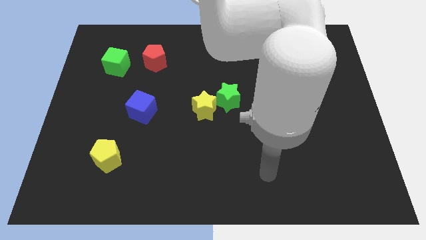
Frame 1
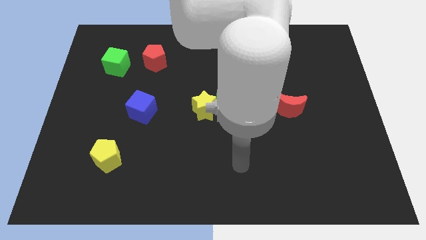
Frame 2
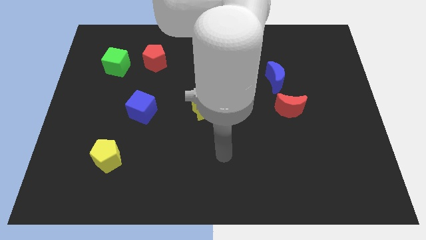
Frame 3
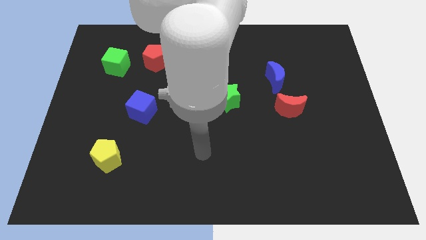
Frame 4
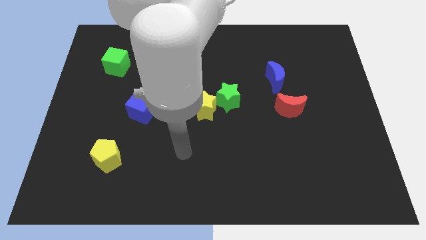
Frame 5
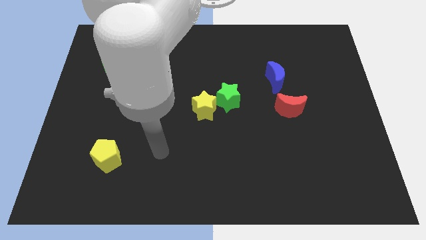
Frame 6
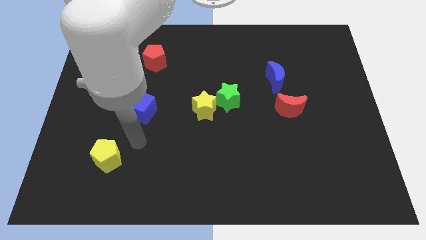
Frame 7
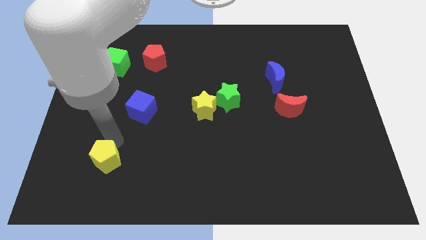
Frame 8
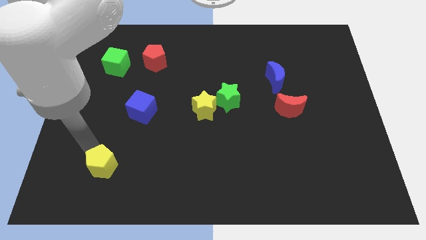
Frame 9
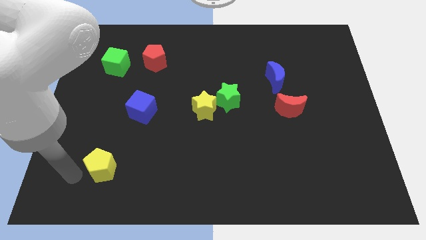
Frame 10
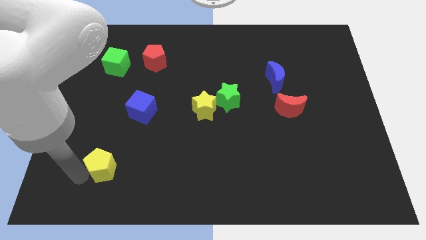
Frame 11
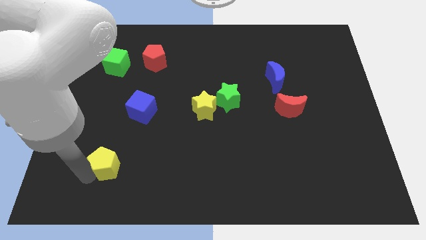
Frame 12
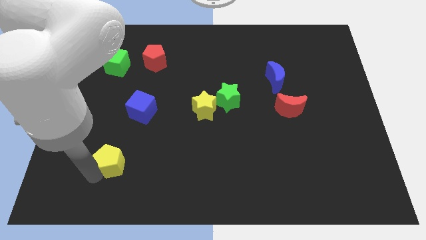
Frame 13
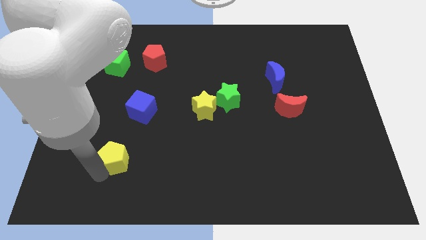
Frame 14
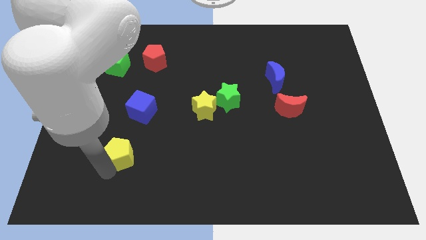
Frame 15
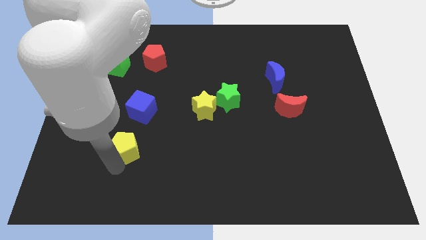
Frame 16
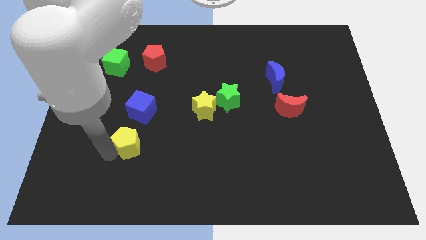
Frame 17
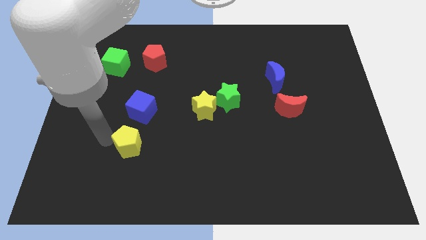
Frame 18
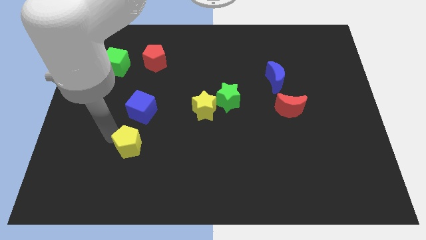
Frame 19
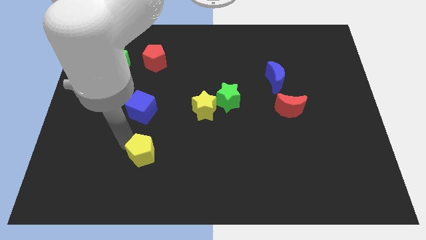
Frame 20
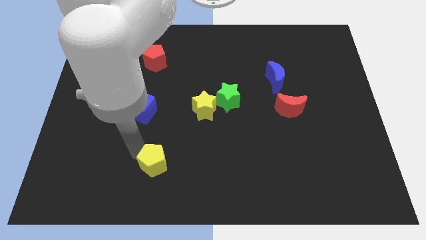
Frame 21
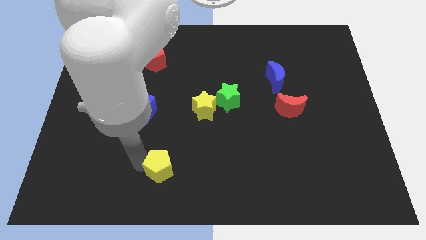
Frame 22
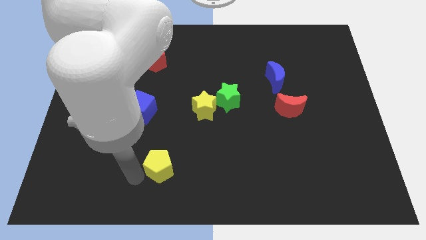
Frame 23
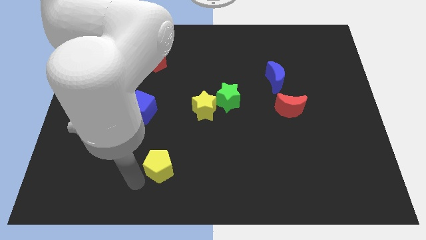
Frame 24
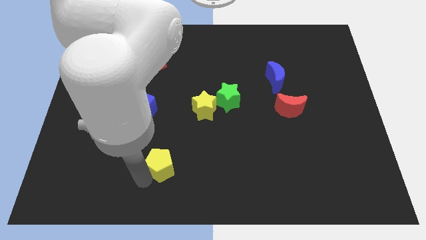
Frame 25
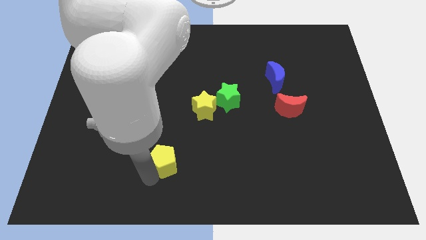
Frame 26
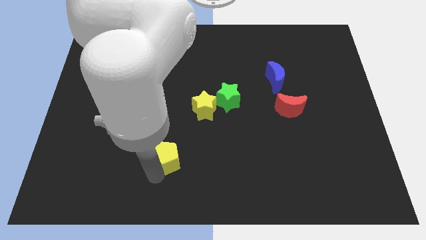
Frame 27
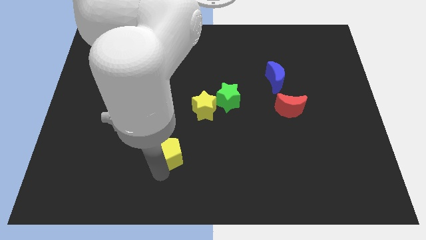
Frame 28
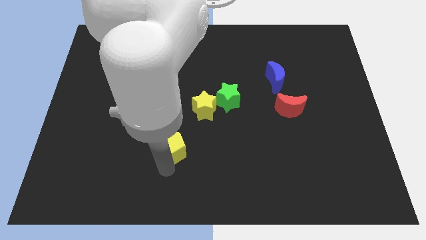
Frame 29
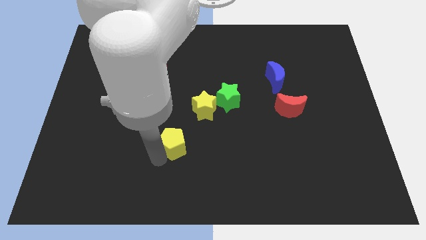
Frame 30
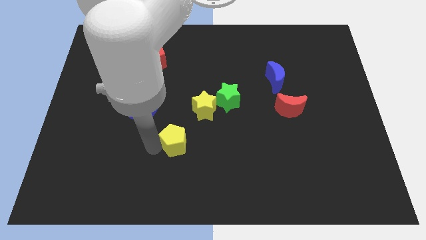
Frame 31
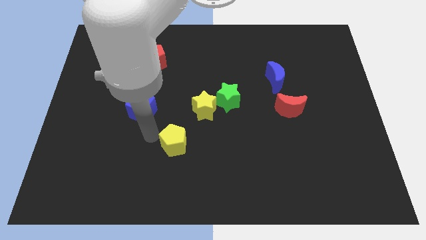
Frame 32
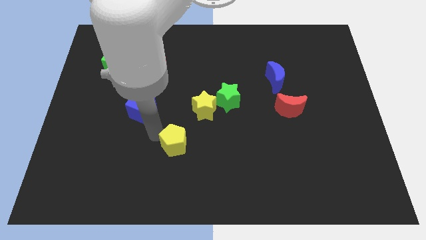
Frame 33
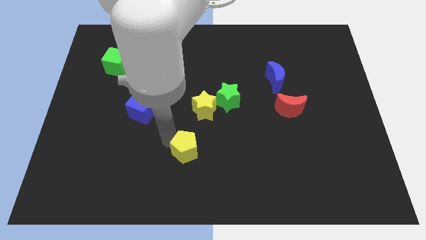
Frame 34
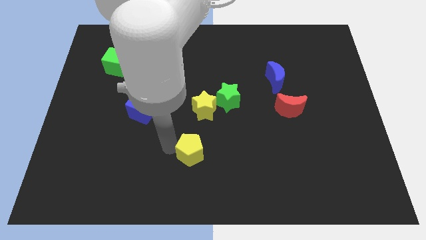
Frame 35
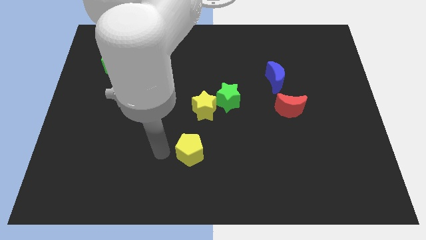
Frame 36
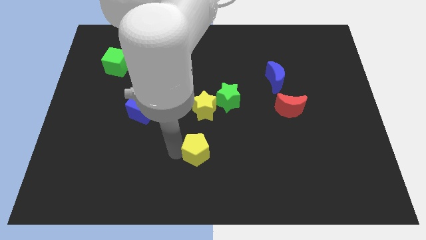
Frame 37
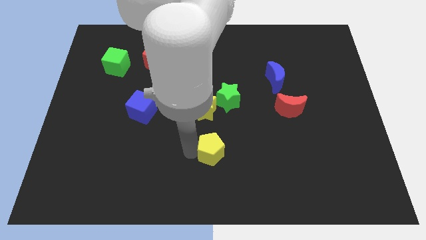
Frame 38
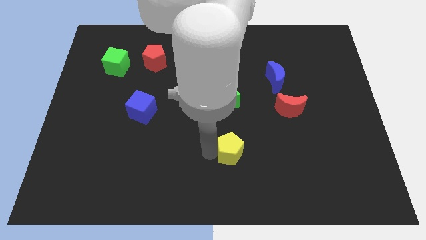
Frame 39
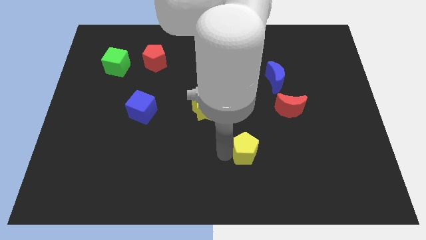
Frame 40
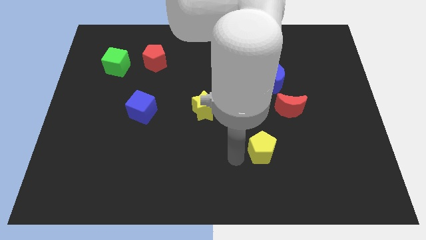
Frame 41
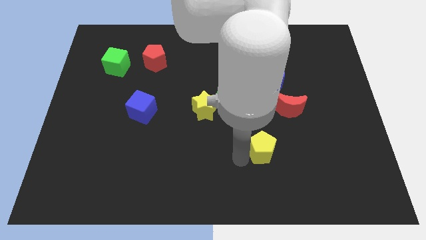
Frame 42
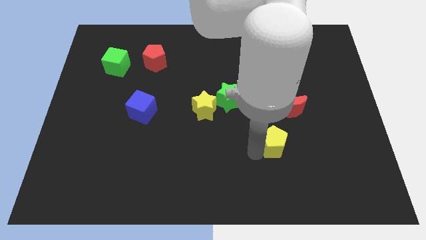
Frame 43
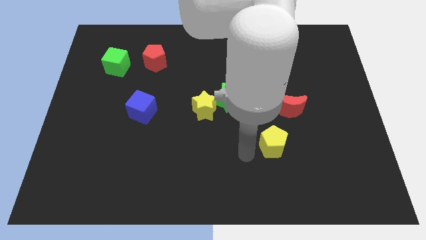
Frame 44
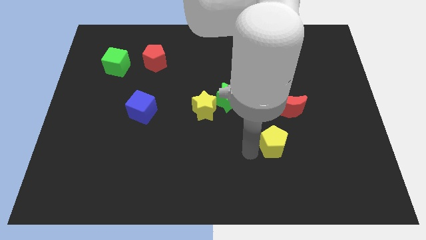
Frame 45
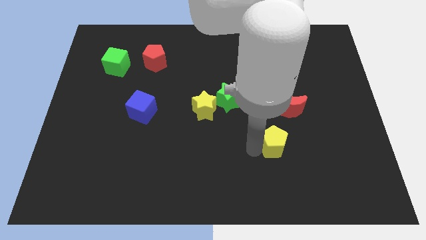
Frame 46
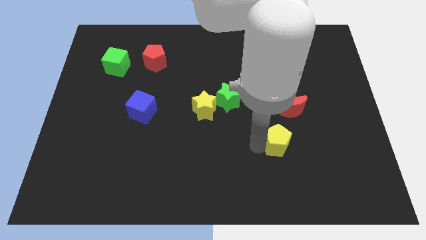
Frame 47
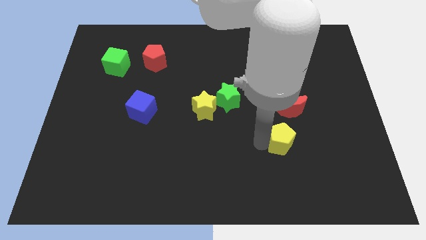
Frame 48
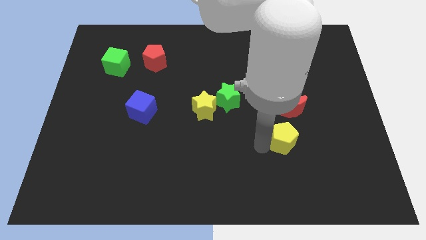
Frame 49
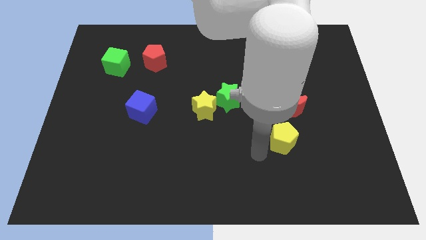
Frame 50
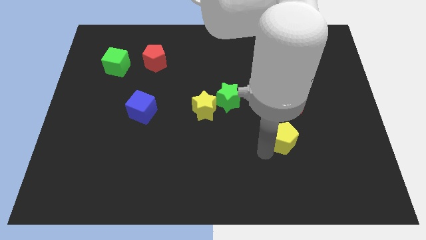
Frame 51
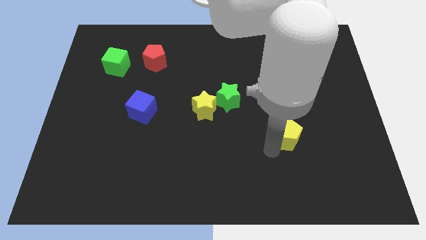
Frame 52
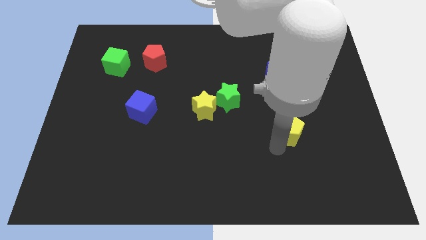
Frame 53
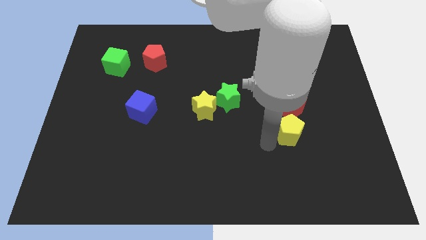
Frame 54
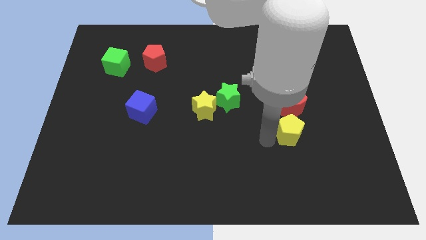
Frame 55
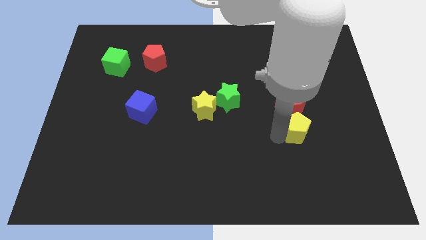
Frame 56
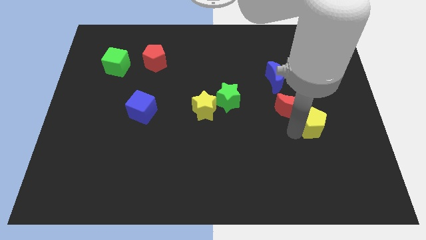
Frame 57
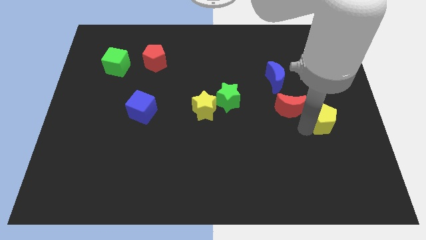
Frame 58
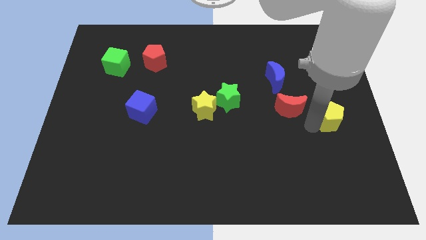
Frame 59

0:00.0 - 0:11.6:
slide the yellow pentagon to the right side

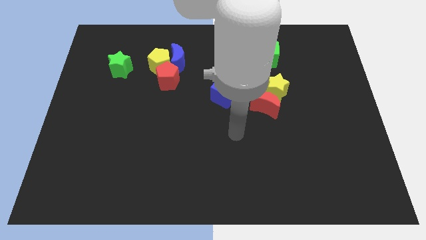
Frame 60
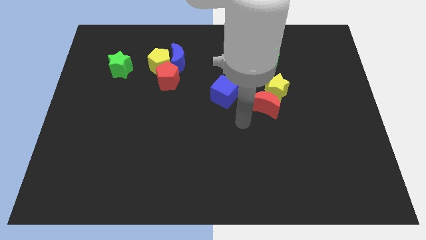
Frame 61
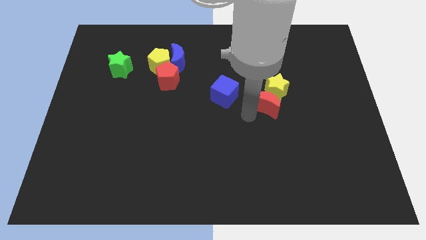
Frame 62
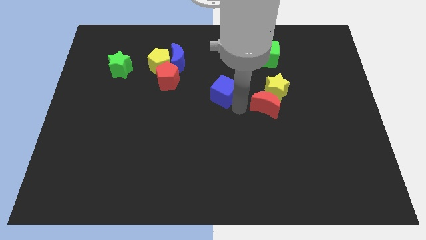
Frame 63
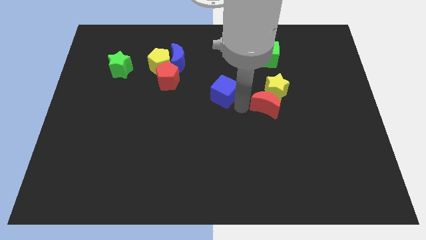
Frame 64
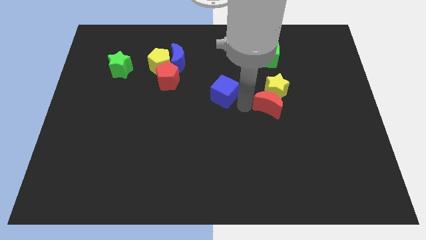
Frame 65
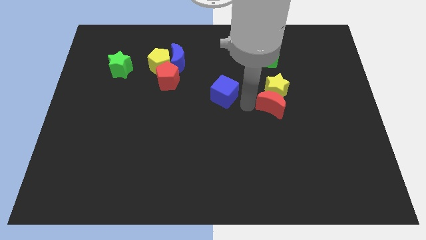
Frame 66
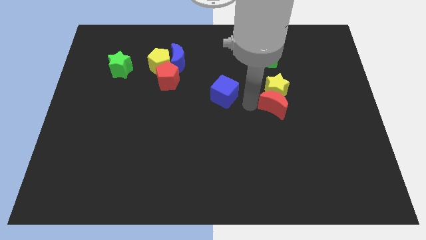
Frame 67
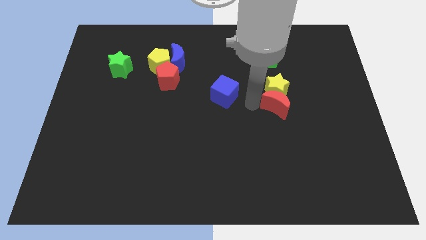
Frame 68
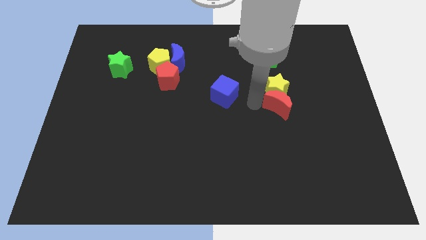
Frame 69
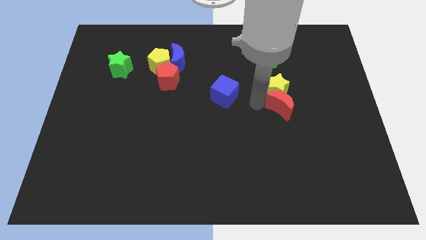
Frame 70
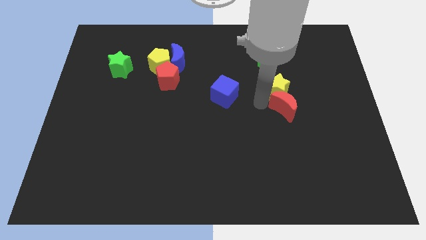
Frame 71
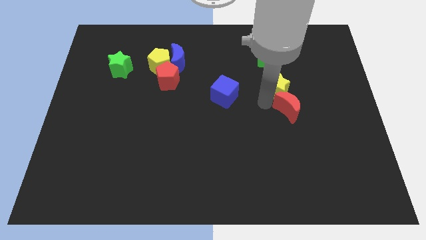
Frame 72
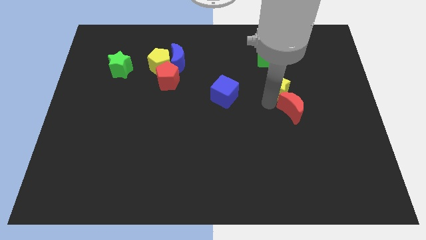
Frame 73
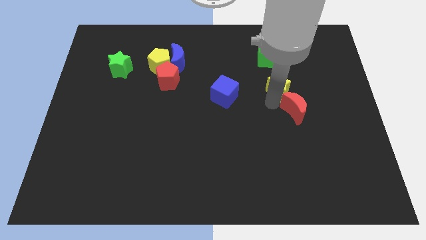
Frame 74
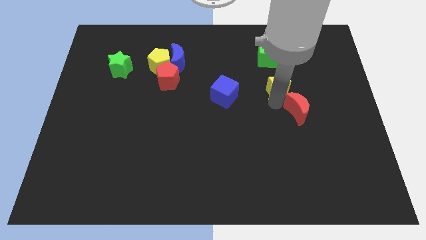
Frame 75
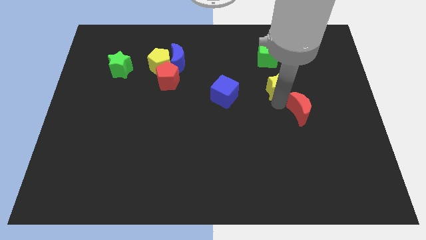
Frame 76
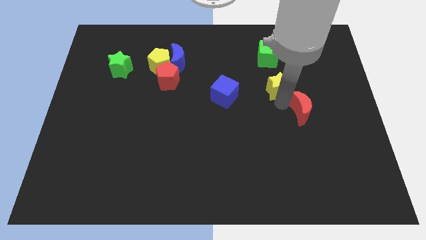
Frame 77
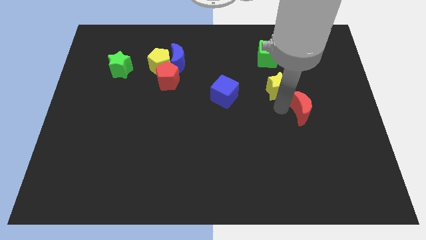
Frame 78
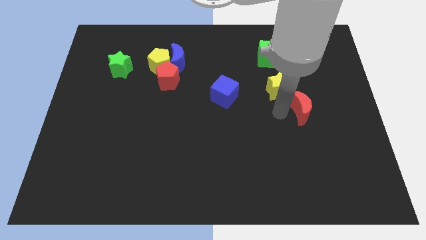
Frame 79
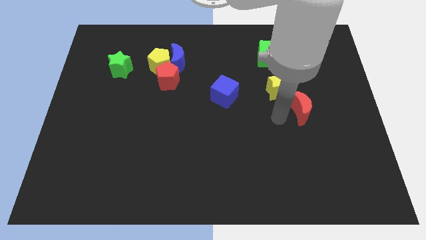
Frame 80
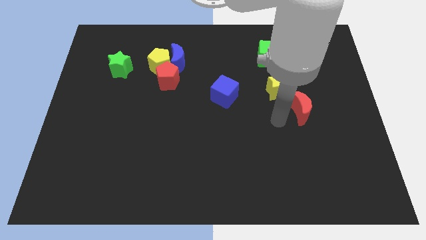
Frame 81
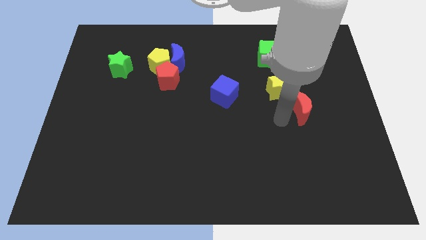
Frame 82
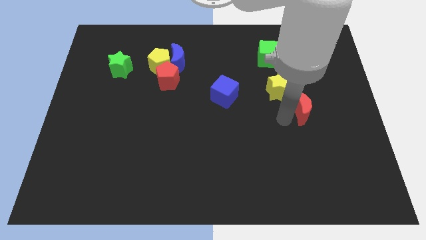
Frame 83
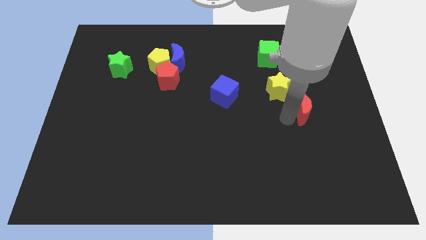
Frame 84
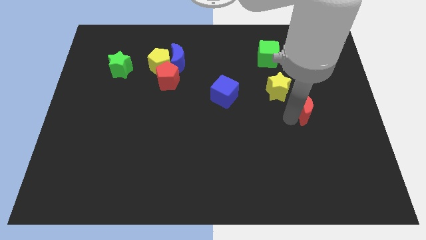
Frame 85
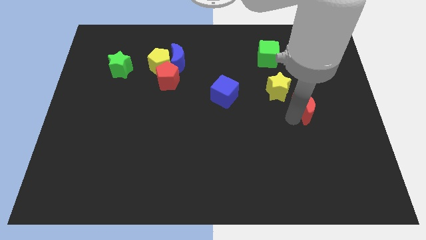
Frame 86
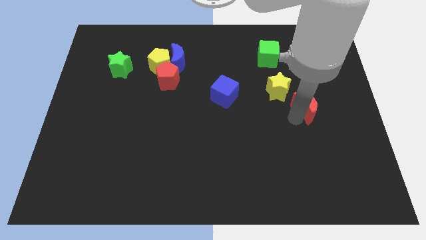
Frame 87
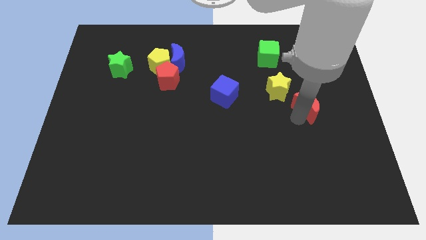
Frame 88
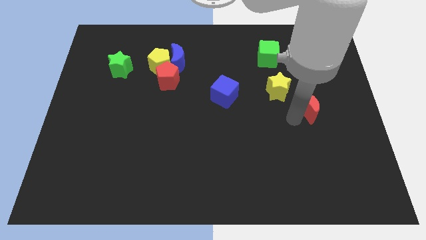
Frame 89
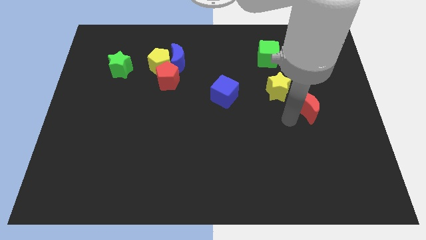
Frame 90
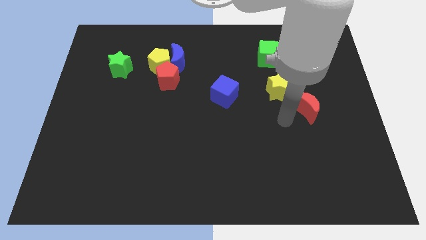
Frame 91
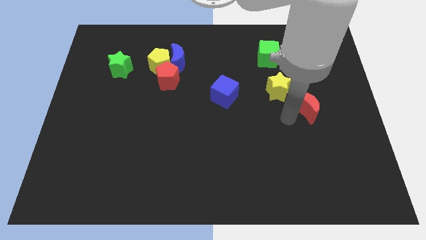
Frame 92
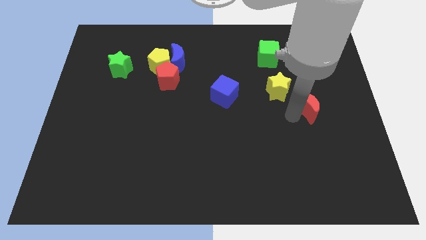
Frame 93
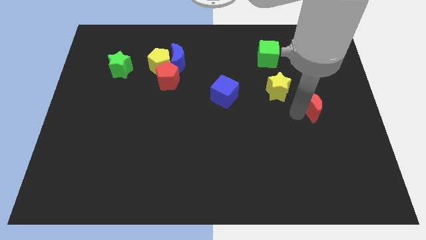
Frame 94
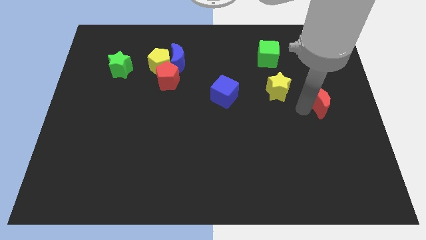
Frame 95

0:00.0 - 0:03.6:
slide the red moon to the center right
